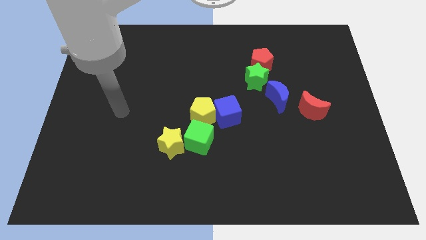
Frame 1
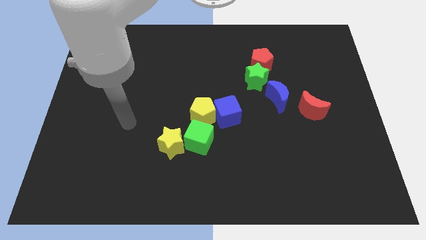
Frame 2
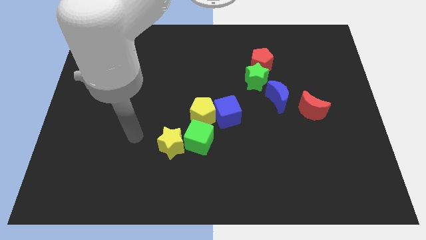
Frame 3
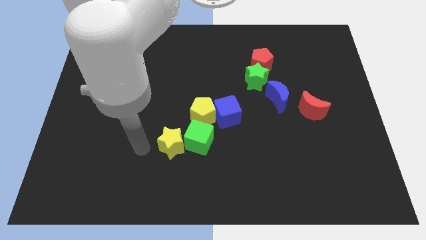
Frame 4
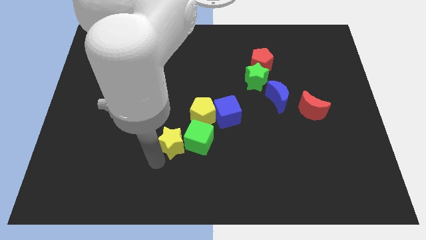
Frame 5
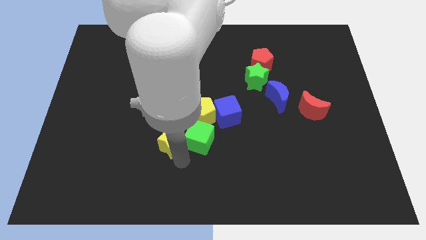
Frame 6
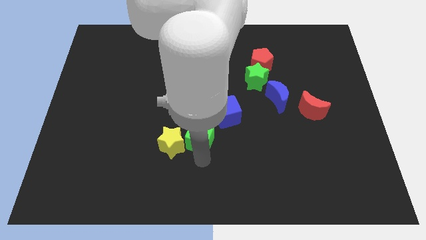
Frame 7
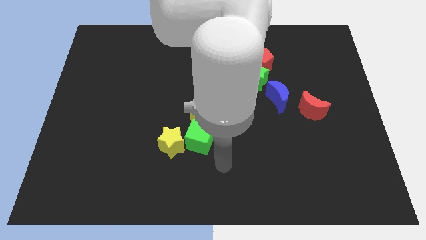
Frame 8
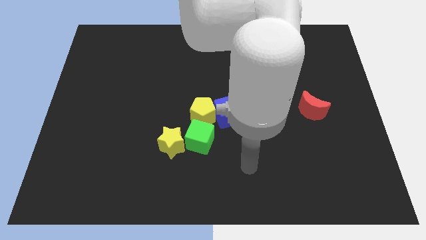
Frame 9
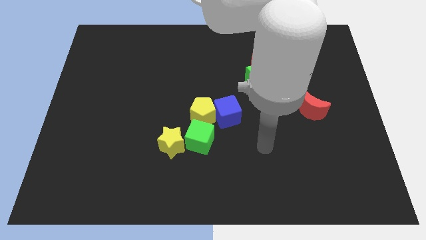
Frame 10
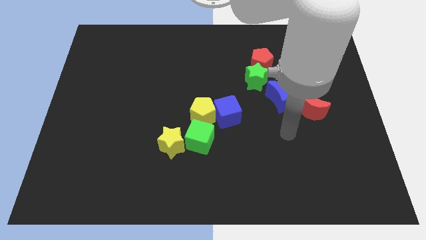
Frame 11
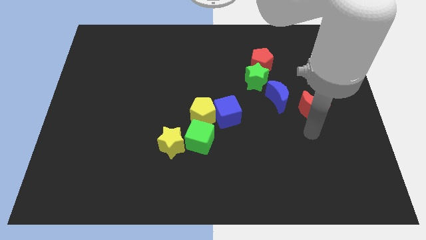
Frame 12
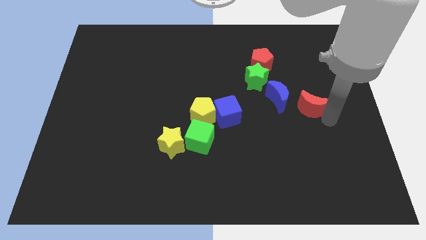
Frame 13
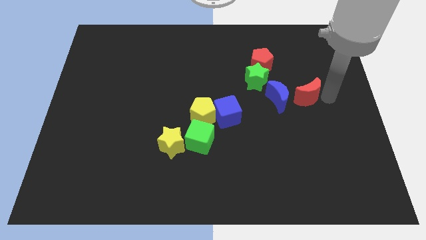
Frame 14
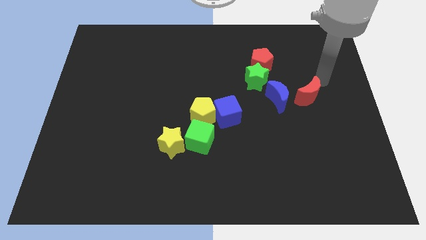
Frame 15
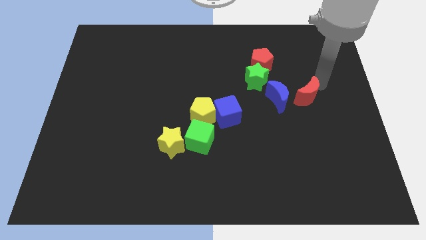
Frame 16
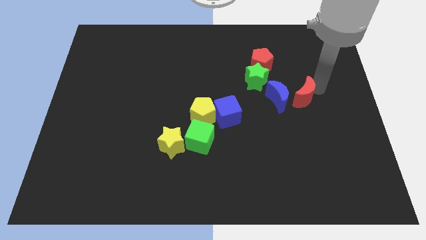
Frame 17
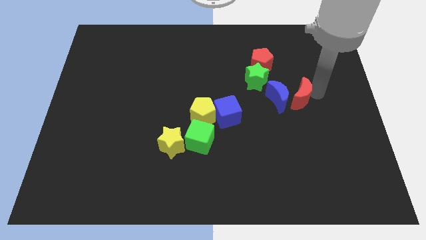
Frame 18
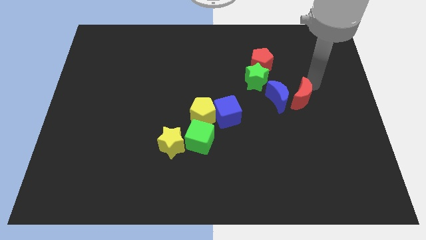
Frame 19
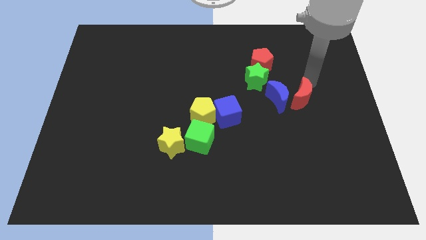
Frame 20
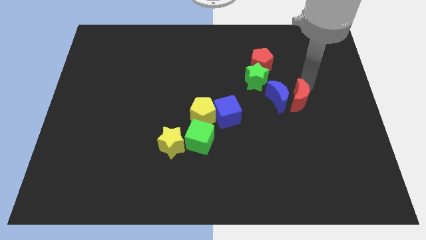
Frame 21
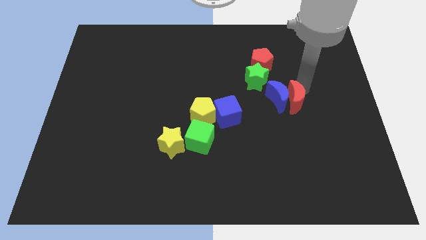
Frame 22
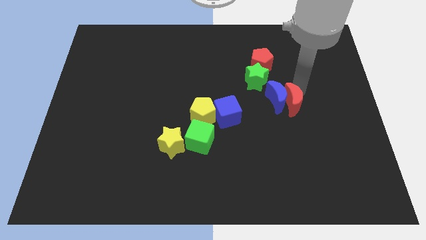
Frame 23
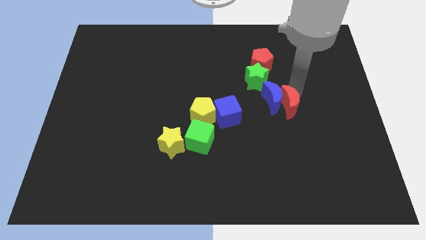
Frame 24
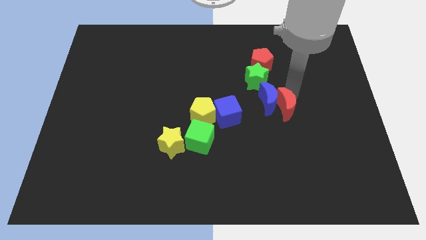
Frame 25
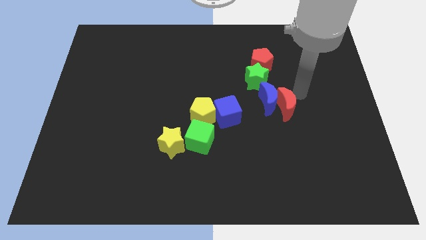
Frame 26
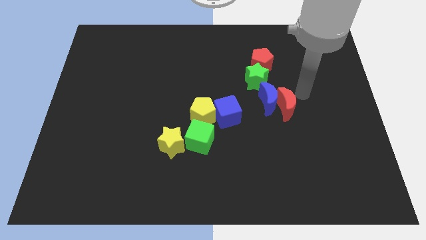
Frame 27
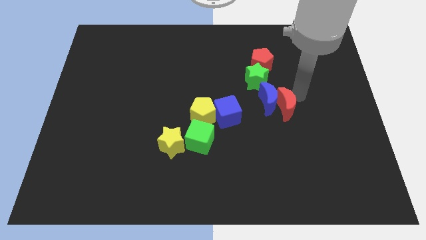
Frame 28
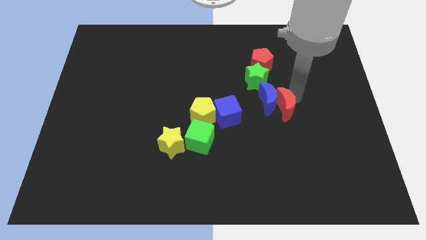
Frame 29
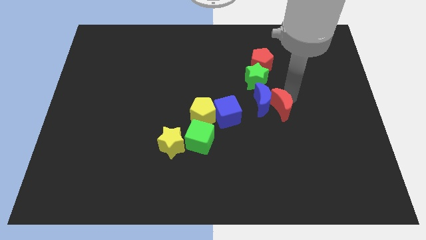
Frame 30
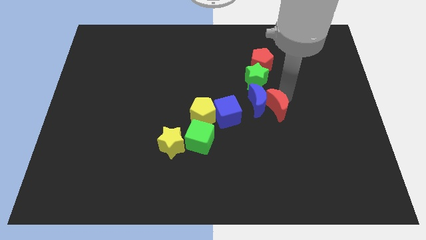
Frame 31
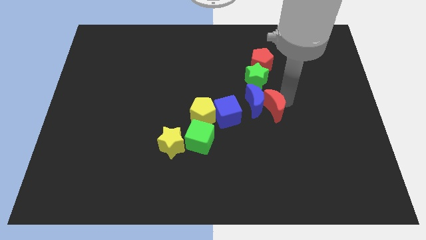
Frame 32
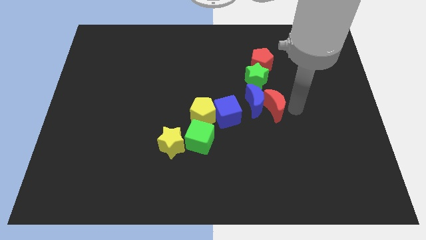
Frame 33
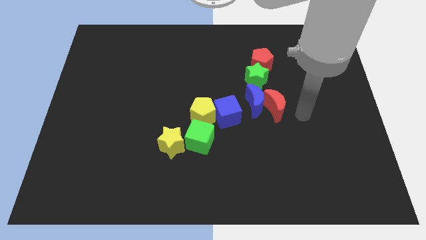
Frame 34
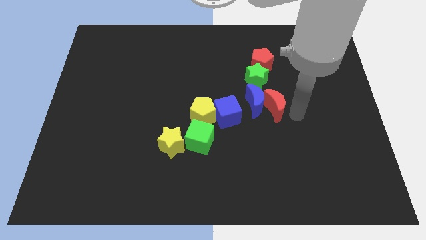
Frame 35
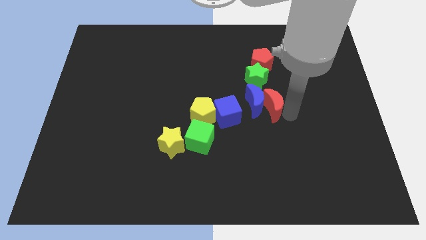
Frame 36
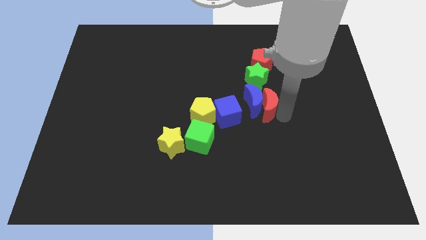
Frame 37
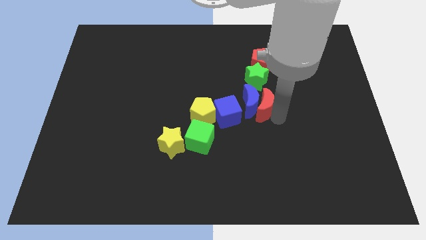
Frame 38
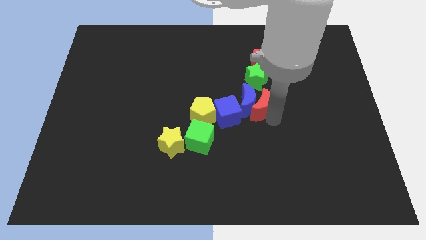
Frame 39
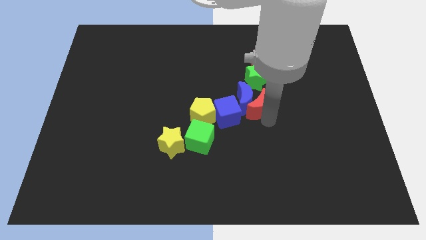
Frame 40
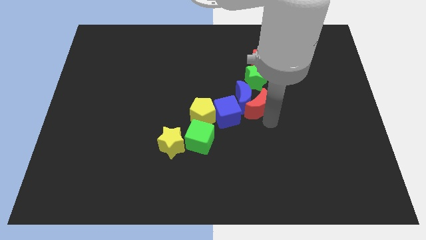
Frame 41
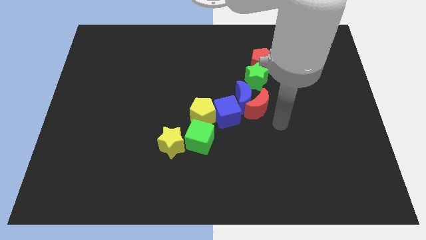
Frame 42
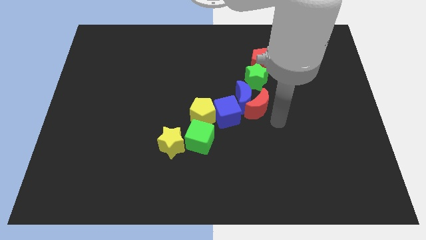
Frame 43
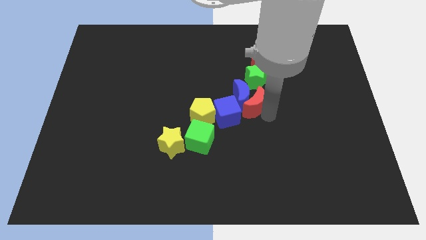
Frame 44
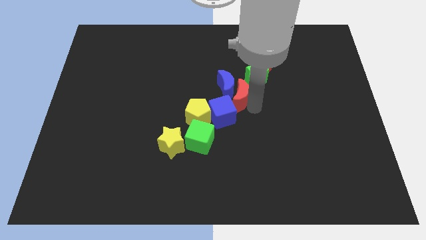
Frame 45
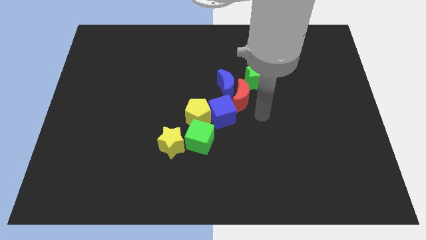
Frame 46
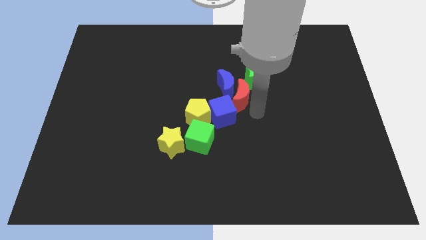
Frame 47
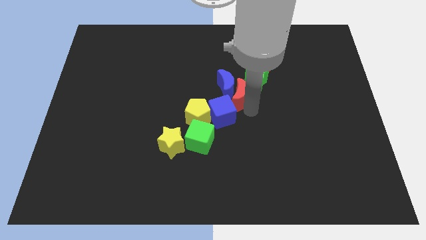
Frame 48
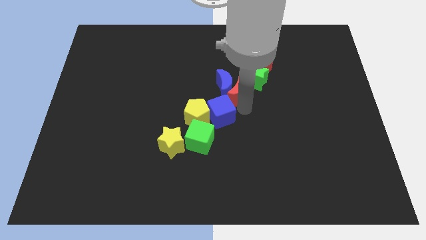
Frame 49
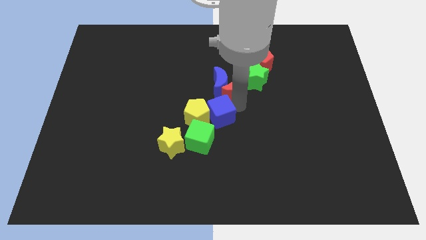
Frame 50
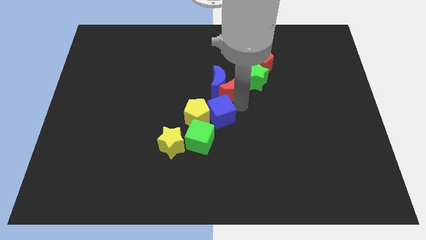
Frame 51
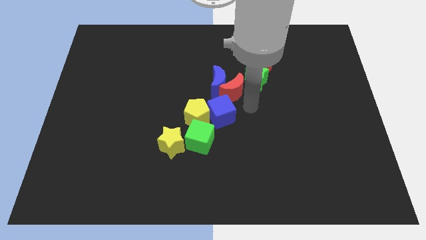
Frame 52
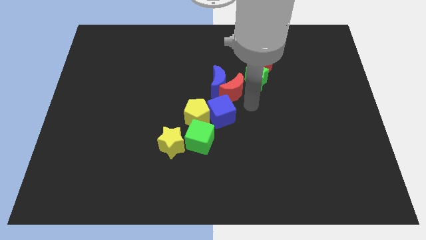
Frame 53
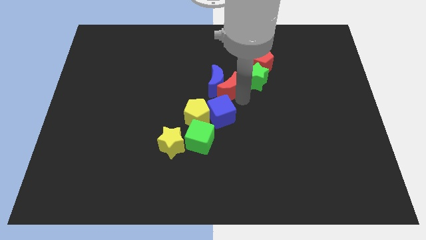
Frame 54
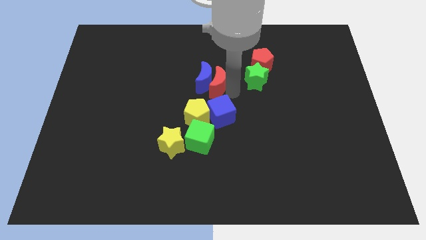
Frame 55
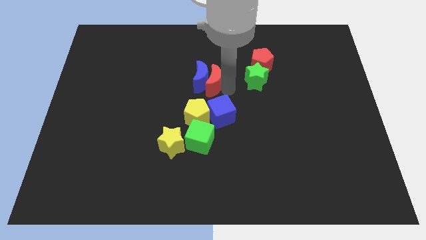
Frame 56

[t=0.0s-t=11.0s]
push the red moon to the left

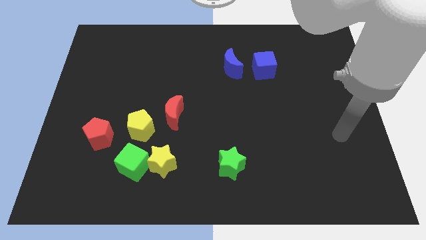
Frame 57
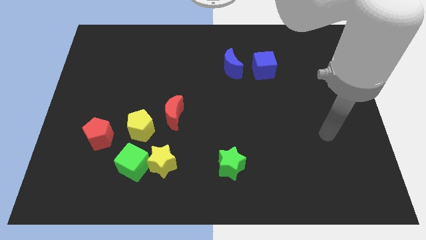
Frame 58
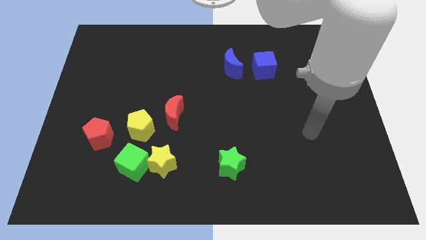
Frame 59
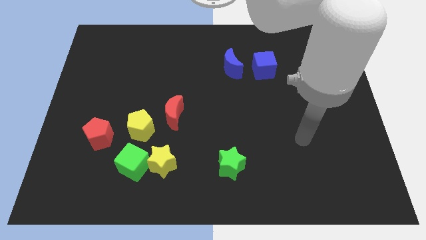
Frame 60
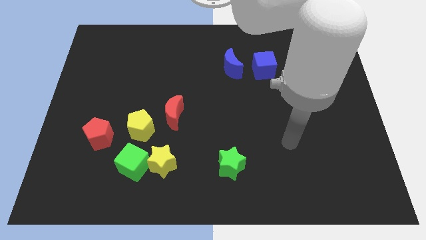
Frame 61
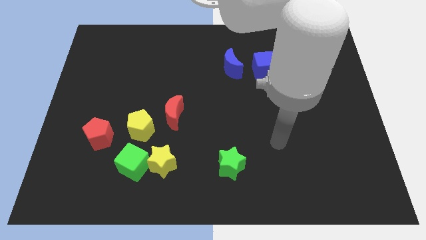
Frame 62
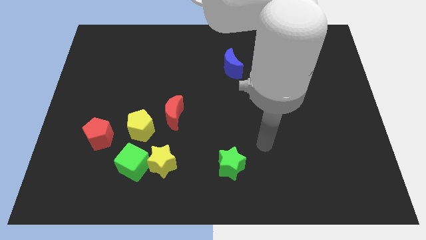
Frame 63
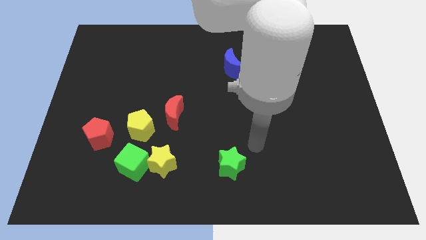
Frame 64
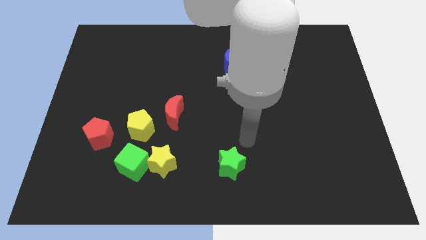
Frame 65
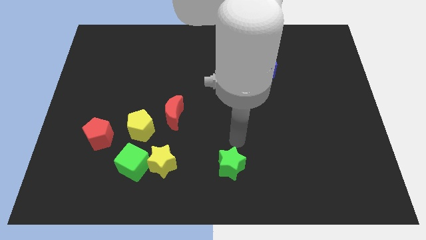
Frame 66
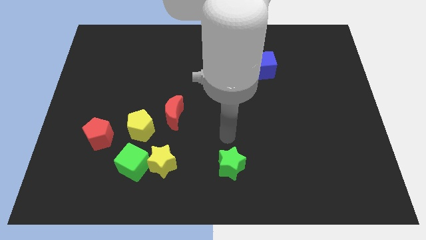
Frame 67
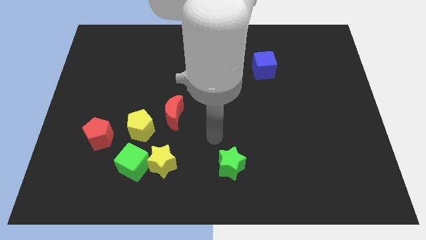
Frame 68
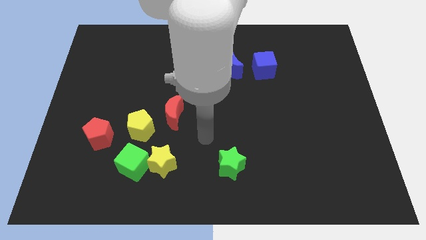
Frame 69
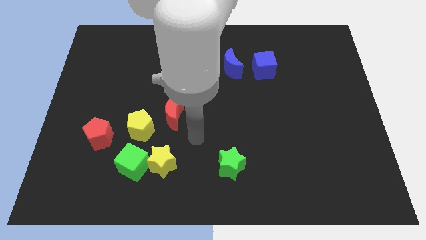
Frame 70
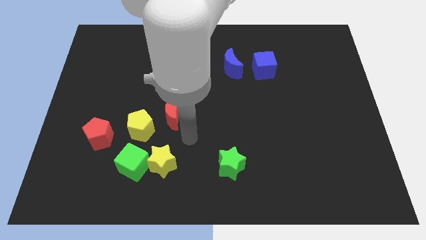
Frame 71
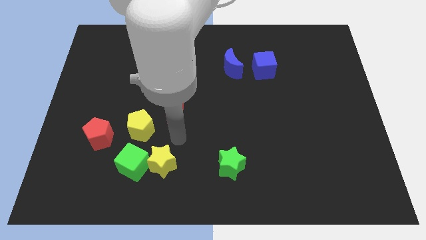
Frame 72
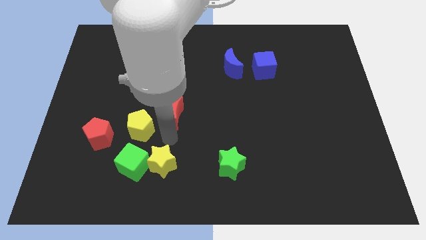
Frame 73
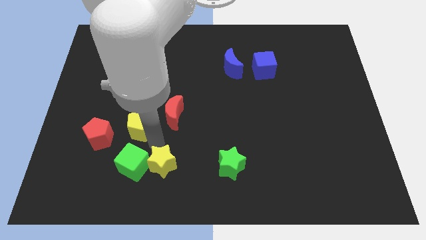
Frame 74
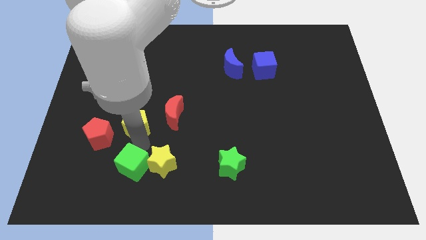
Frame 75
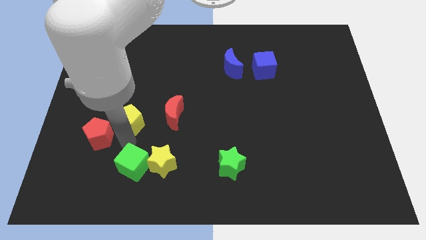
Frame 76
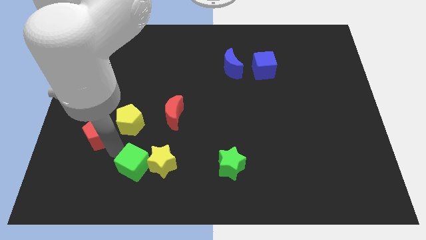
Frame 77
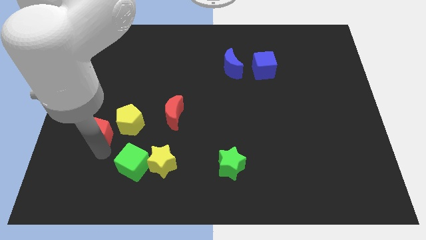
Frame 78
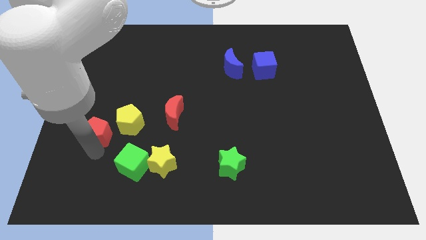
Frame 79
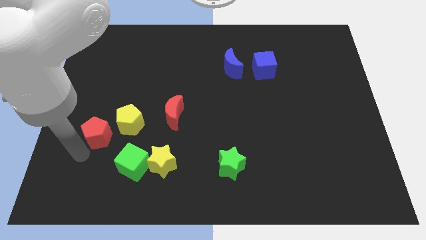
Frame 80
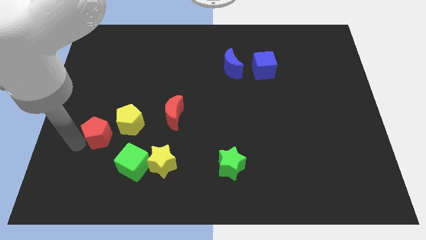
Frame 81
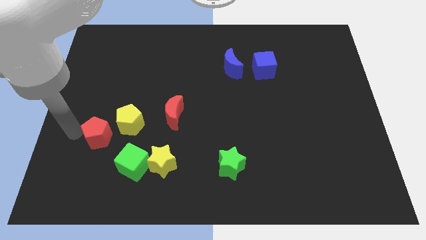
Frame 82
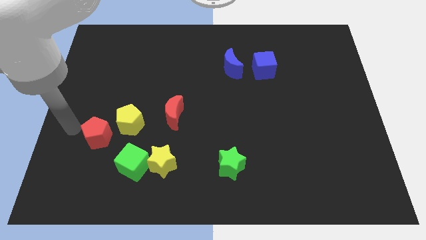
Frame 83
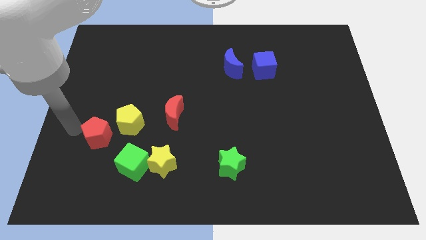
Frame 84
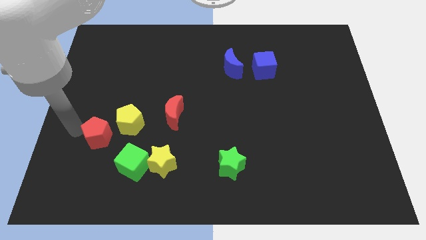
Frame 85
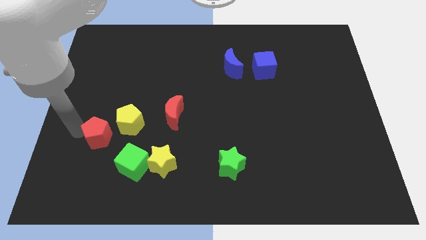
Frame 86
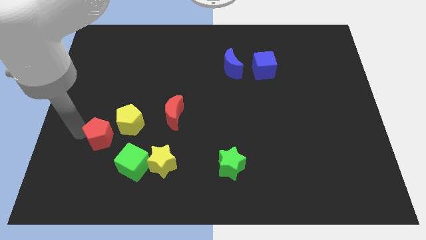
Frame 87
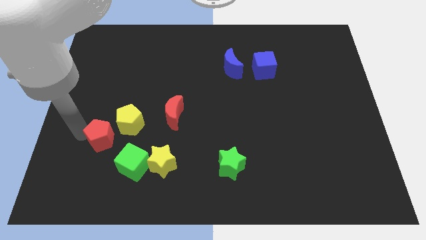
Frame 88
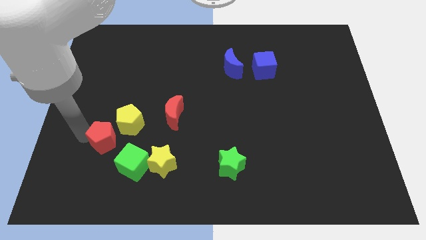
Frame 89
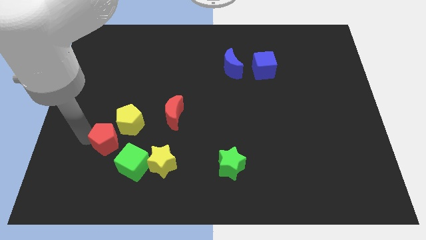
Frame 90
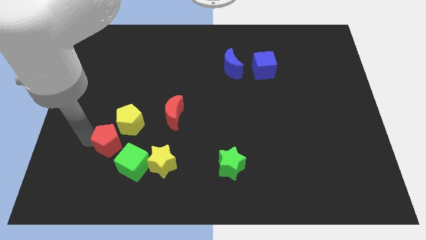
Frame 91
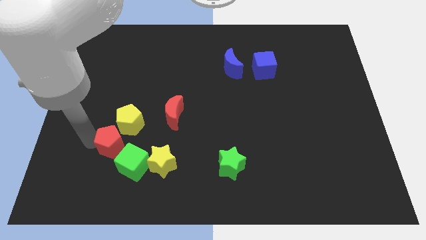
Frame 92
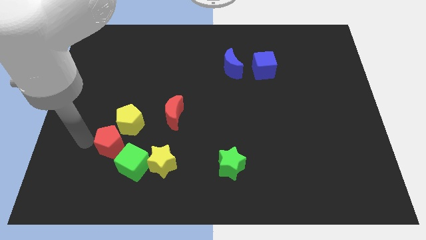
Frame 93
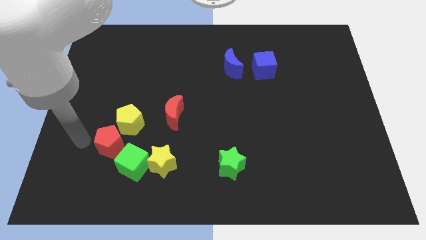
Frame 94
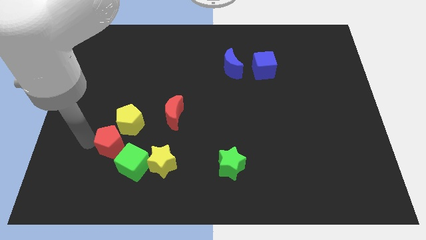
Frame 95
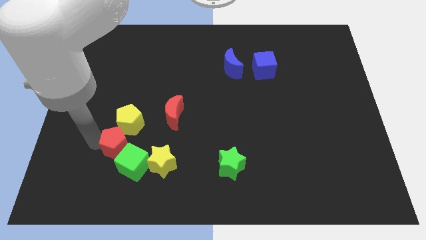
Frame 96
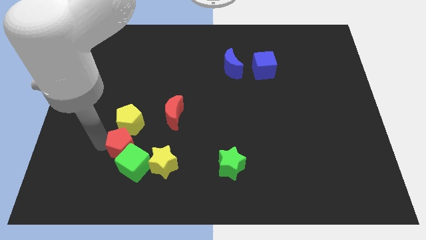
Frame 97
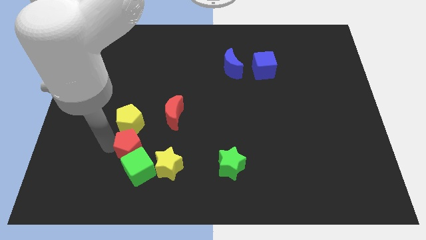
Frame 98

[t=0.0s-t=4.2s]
slightly push the red pentagon right
